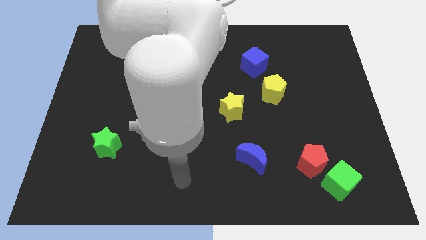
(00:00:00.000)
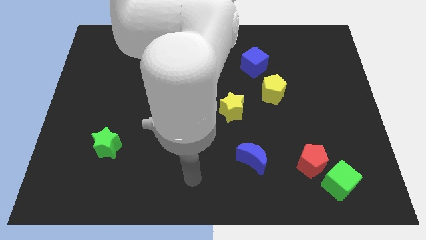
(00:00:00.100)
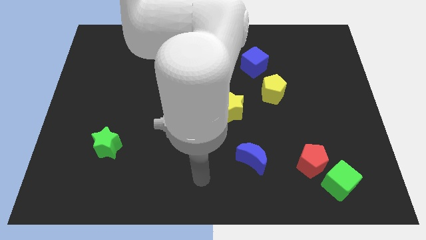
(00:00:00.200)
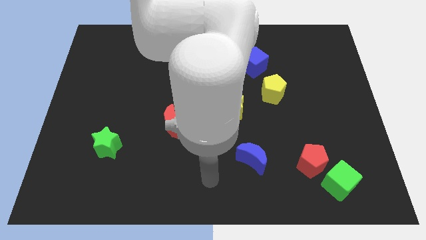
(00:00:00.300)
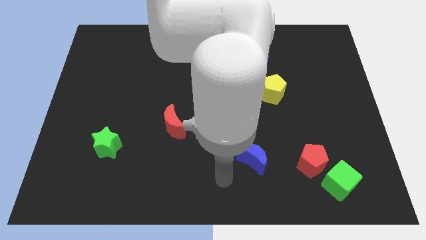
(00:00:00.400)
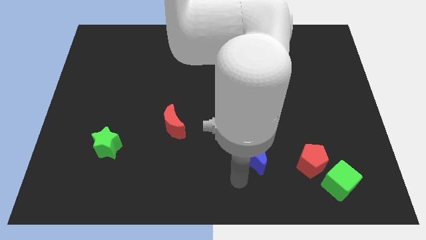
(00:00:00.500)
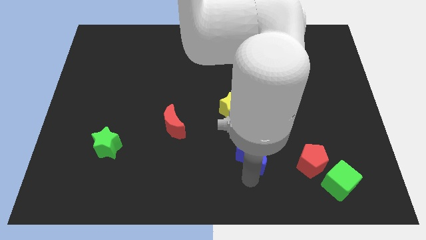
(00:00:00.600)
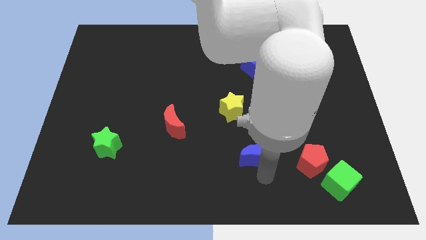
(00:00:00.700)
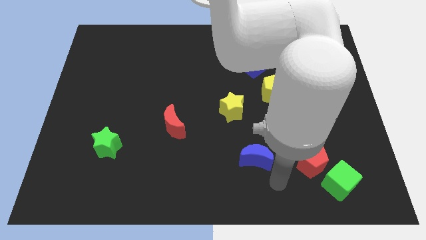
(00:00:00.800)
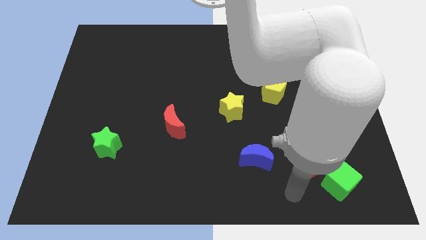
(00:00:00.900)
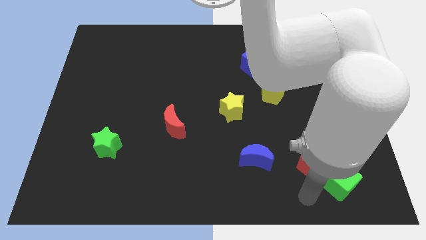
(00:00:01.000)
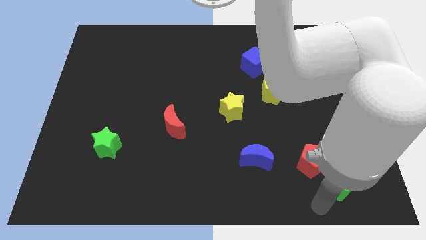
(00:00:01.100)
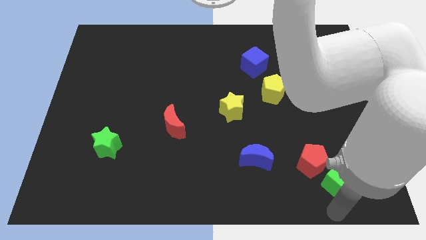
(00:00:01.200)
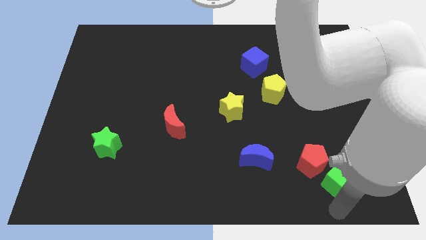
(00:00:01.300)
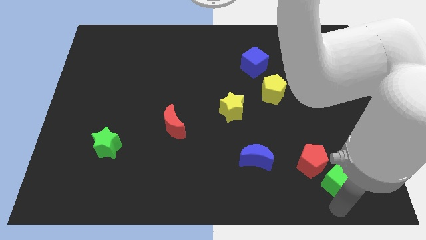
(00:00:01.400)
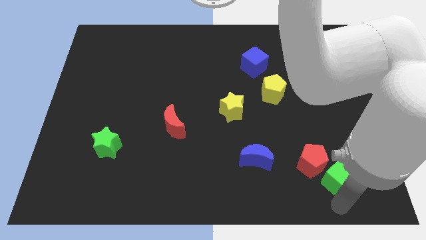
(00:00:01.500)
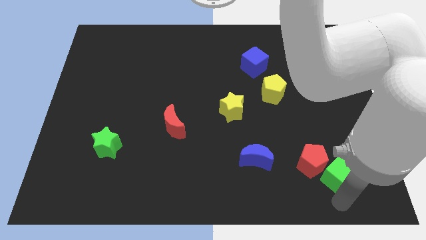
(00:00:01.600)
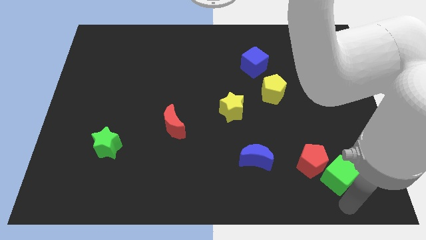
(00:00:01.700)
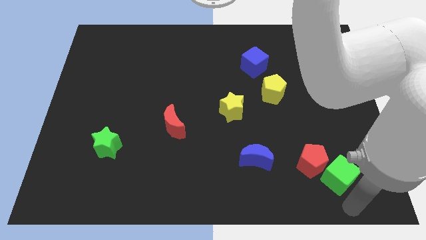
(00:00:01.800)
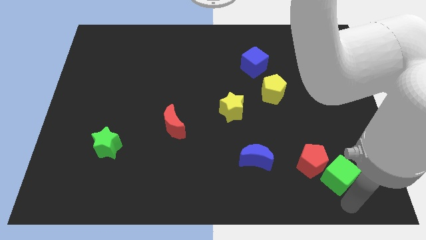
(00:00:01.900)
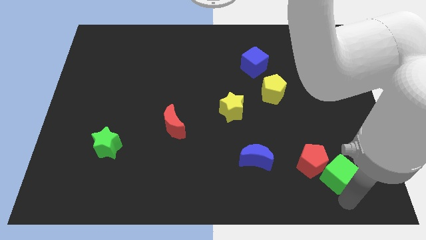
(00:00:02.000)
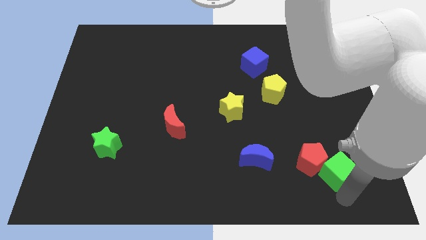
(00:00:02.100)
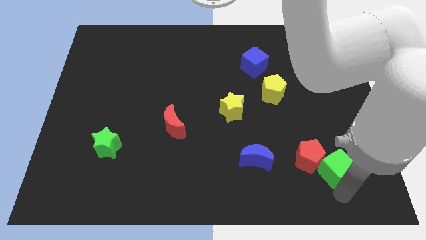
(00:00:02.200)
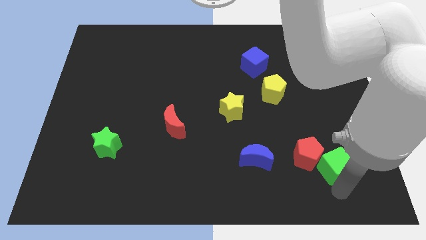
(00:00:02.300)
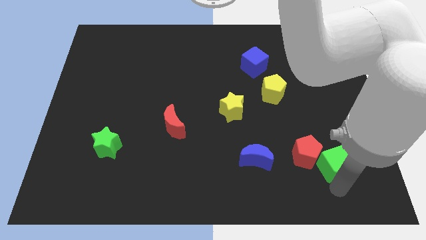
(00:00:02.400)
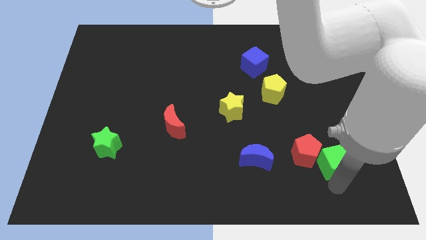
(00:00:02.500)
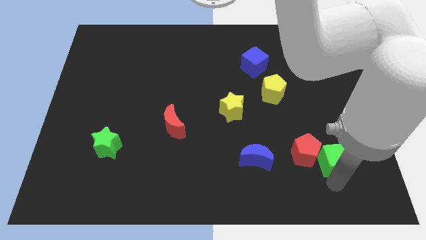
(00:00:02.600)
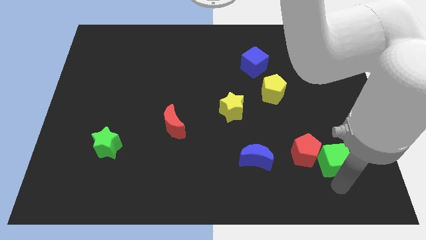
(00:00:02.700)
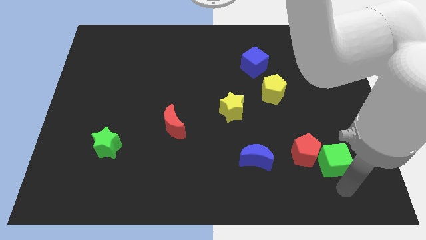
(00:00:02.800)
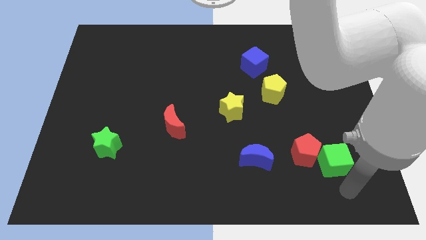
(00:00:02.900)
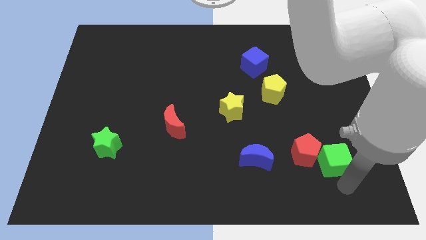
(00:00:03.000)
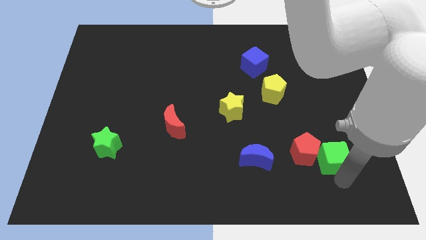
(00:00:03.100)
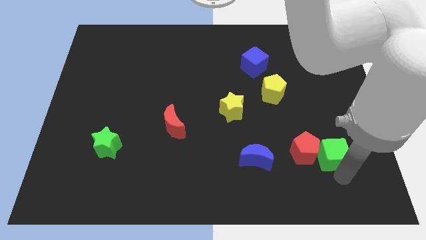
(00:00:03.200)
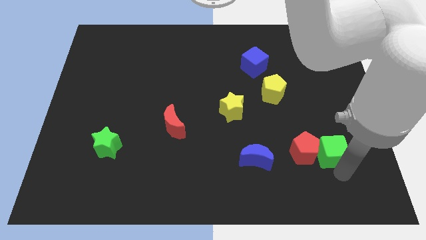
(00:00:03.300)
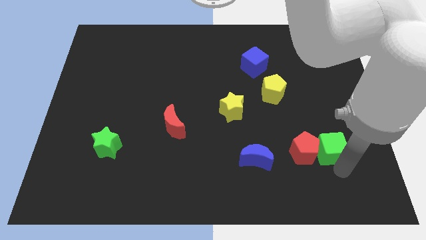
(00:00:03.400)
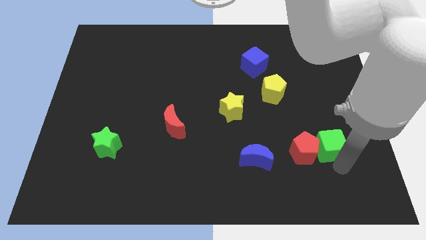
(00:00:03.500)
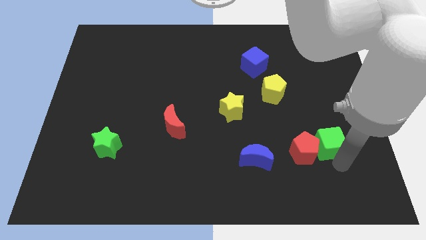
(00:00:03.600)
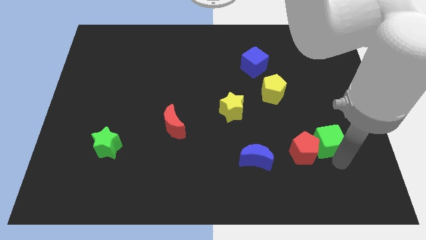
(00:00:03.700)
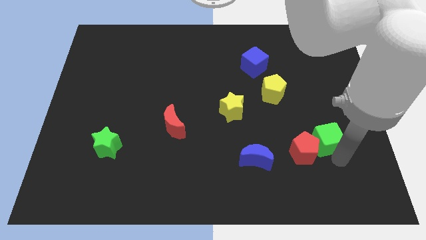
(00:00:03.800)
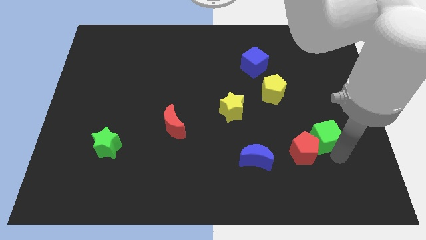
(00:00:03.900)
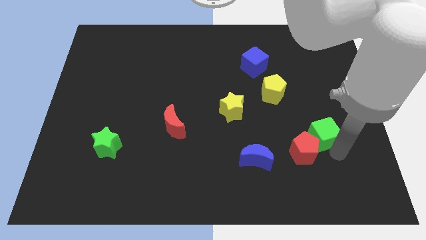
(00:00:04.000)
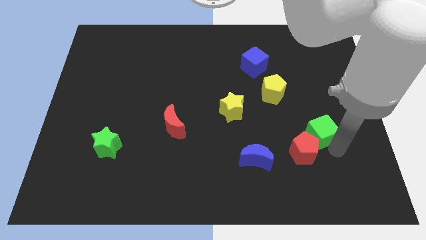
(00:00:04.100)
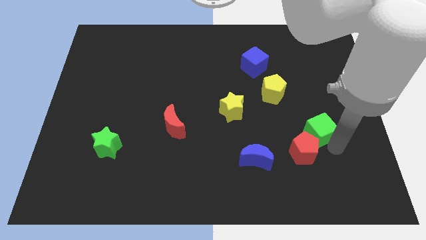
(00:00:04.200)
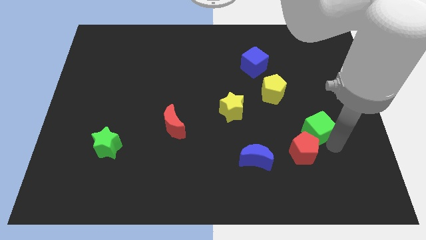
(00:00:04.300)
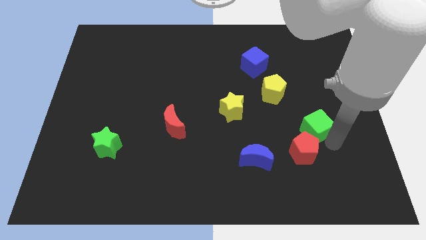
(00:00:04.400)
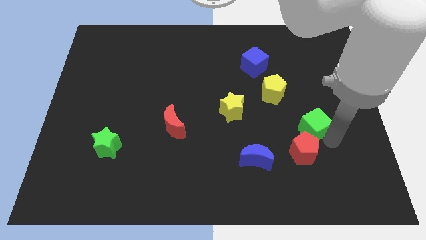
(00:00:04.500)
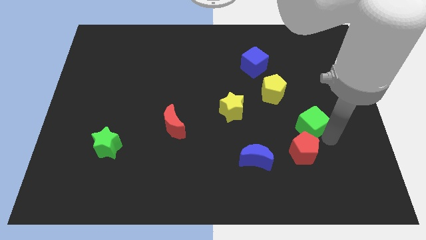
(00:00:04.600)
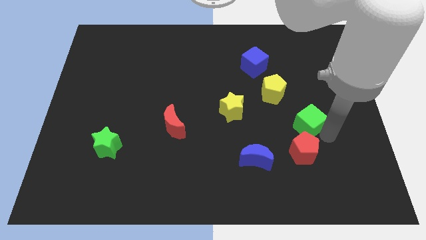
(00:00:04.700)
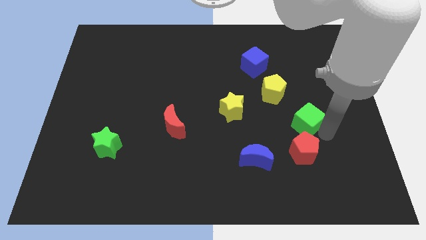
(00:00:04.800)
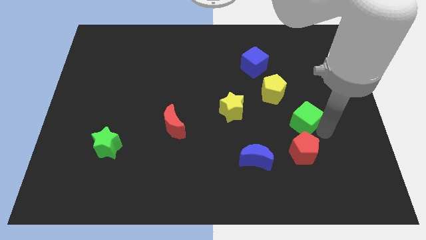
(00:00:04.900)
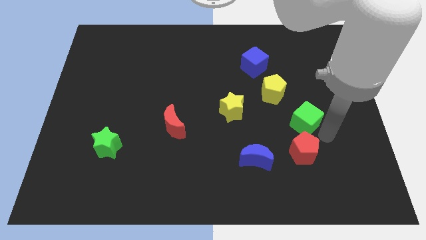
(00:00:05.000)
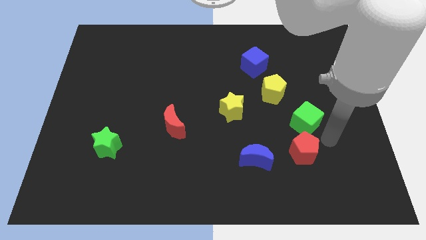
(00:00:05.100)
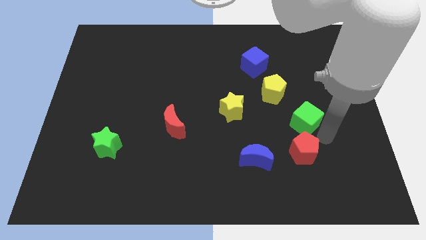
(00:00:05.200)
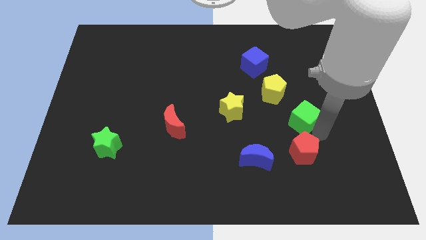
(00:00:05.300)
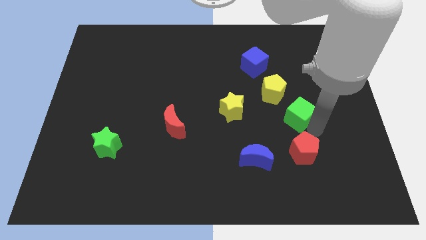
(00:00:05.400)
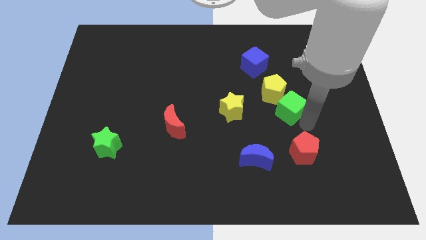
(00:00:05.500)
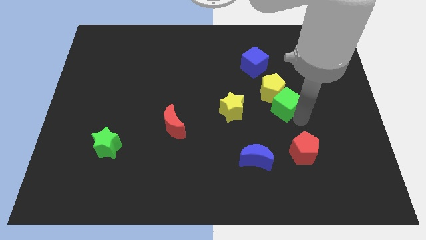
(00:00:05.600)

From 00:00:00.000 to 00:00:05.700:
move the green cube next to the yellow pentagon

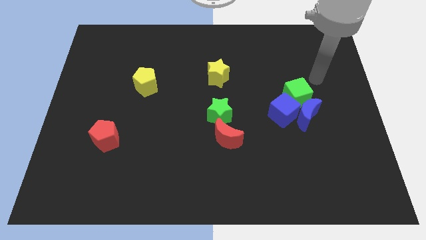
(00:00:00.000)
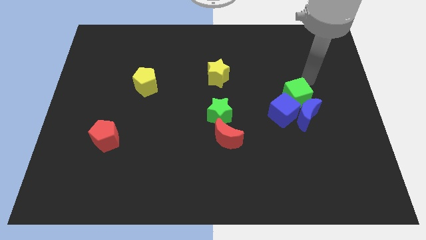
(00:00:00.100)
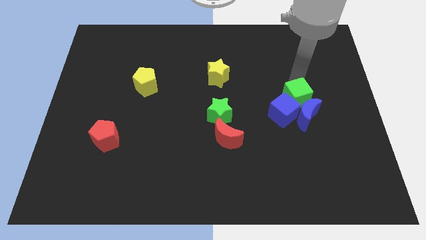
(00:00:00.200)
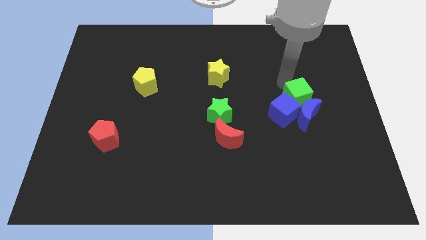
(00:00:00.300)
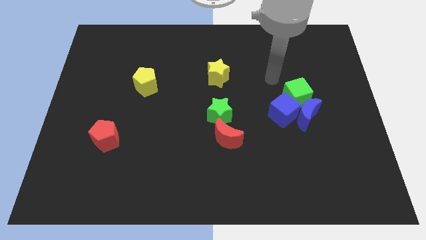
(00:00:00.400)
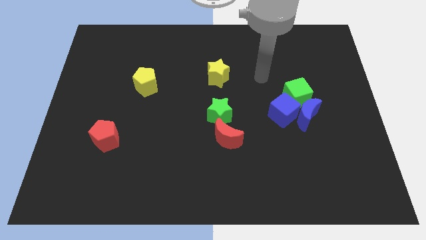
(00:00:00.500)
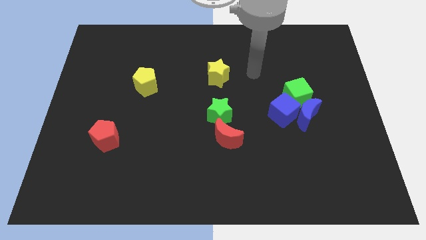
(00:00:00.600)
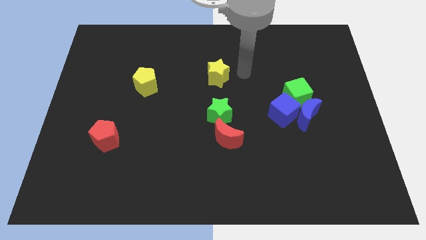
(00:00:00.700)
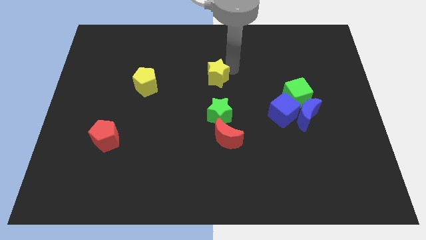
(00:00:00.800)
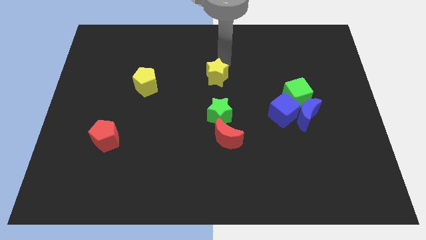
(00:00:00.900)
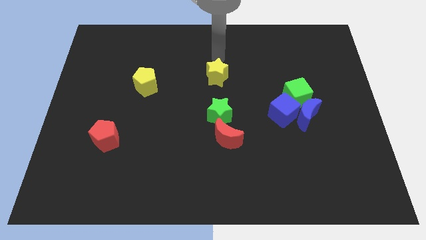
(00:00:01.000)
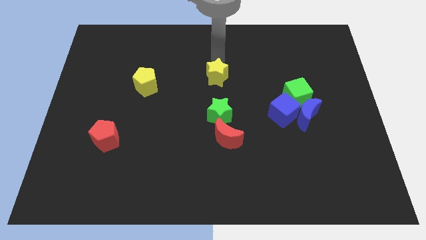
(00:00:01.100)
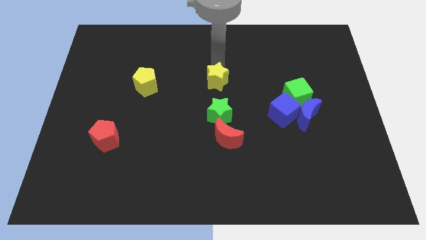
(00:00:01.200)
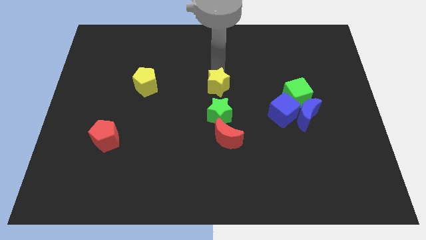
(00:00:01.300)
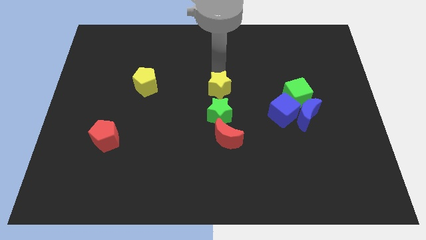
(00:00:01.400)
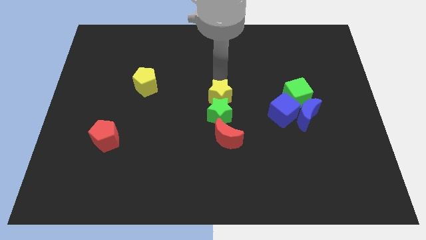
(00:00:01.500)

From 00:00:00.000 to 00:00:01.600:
slide the yellow star close to the green star
